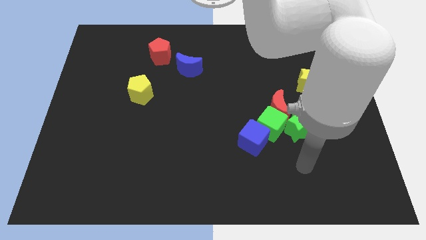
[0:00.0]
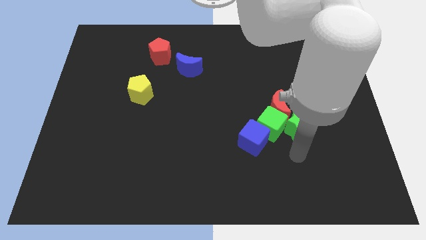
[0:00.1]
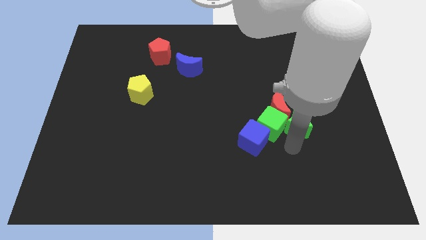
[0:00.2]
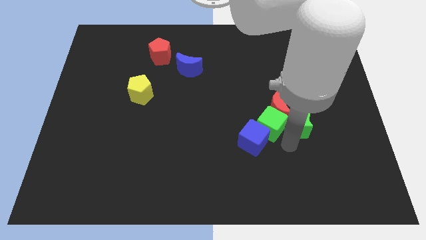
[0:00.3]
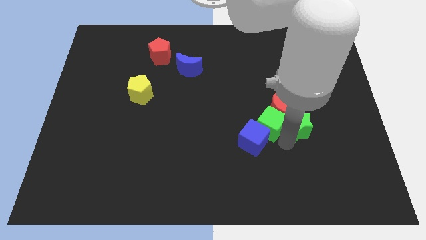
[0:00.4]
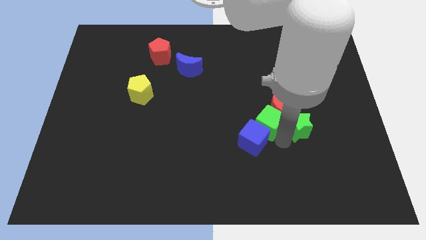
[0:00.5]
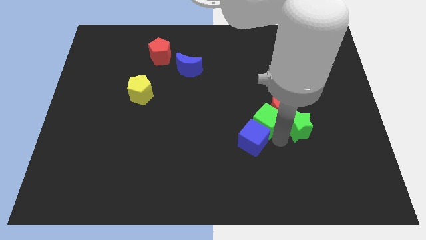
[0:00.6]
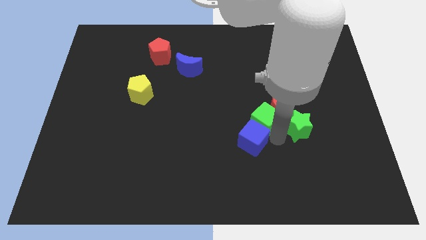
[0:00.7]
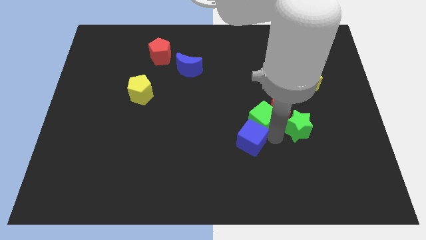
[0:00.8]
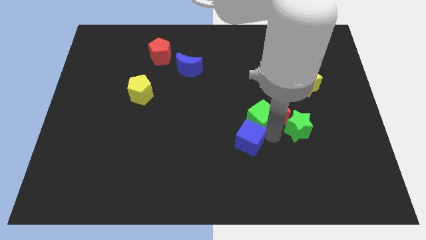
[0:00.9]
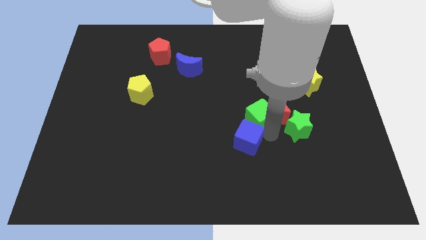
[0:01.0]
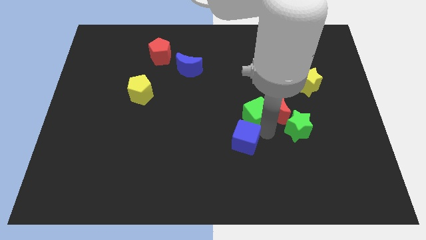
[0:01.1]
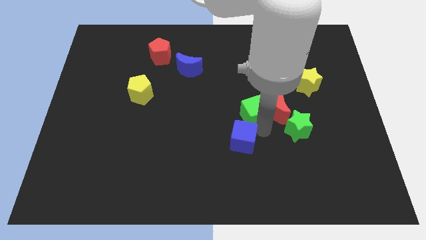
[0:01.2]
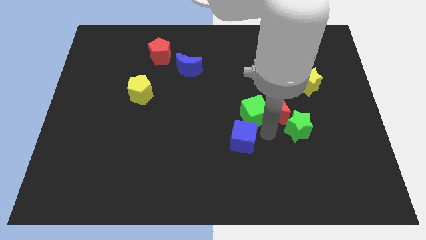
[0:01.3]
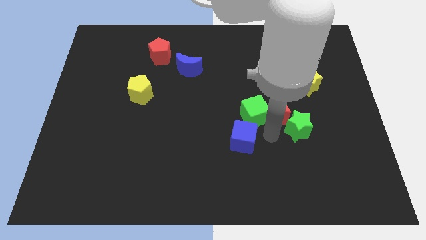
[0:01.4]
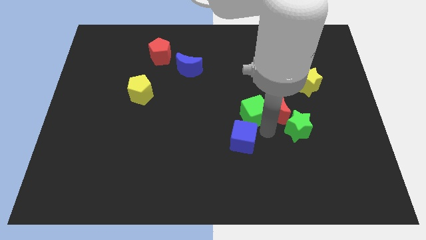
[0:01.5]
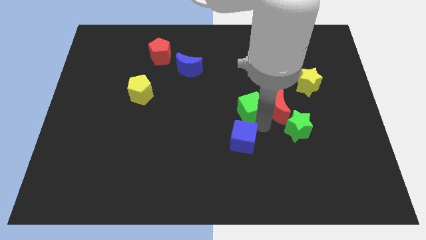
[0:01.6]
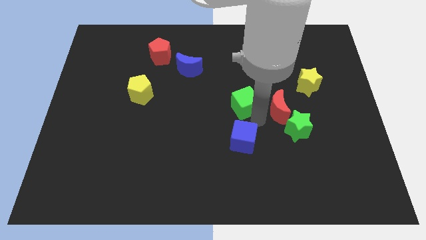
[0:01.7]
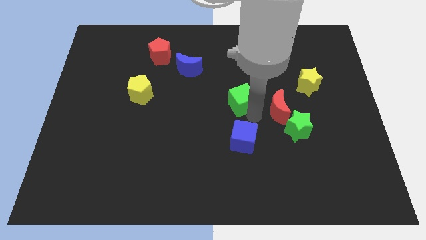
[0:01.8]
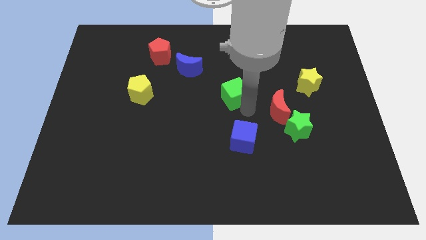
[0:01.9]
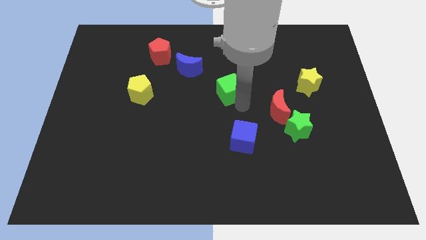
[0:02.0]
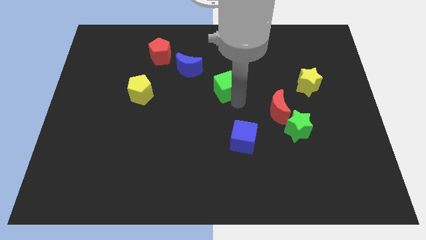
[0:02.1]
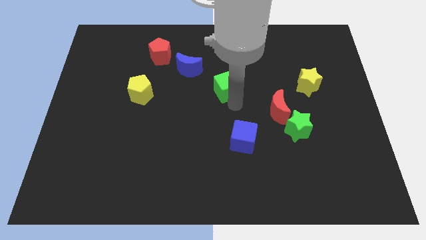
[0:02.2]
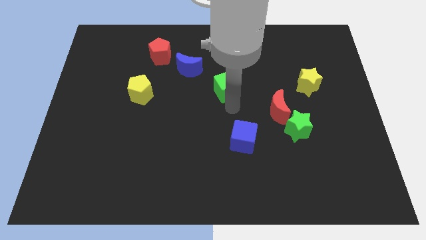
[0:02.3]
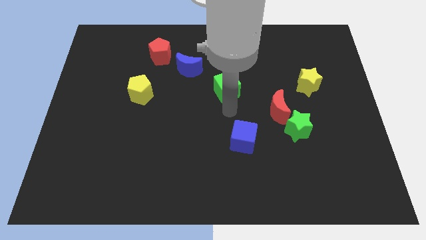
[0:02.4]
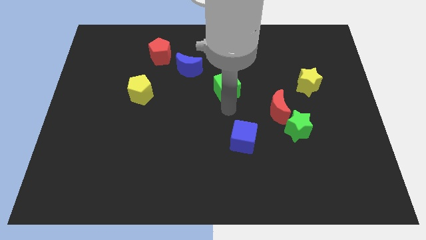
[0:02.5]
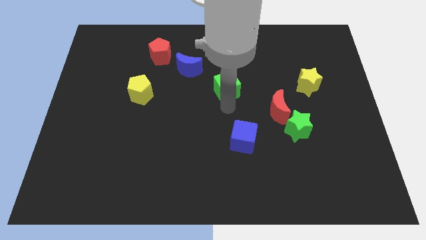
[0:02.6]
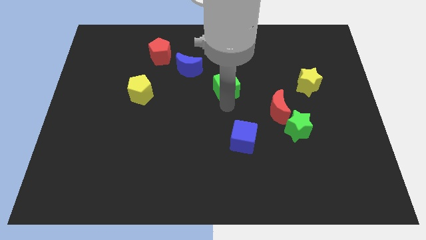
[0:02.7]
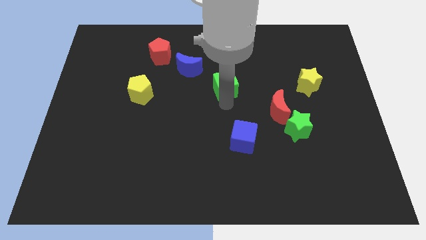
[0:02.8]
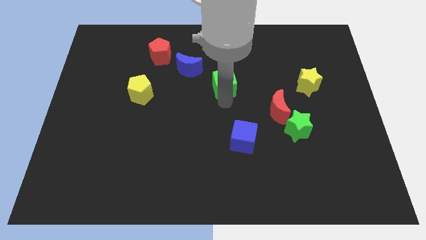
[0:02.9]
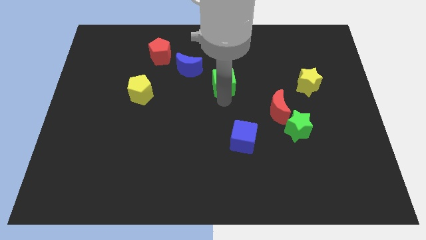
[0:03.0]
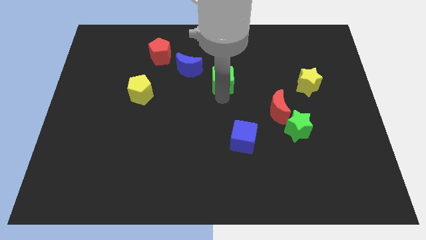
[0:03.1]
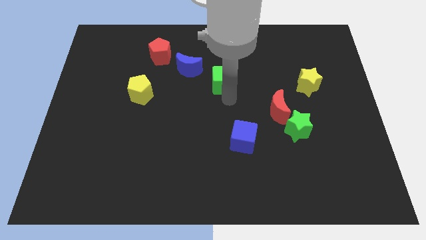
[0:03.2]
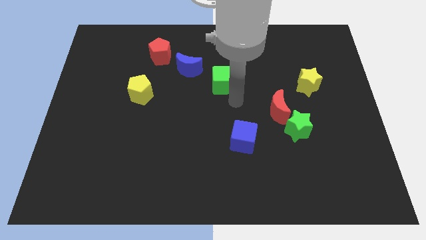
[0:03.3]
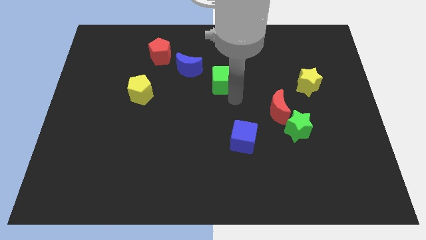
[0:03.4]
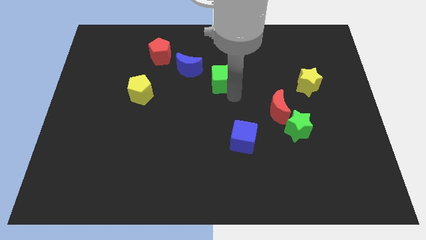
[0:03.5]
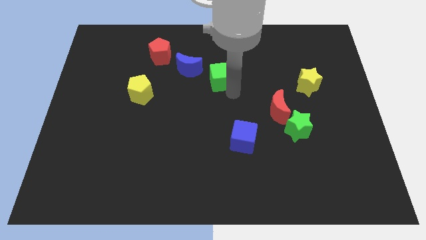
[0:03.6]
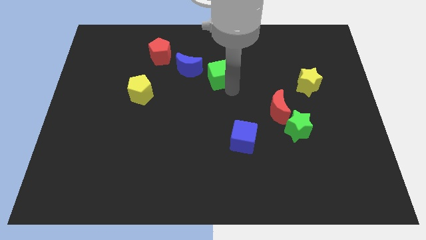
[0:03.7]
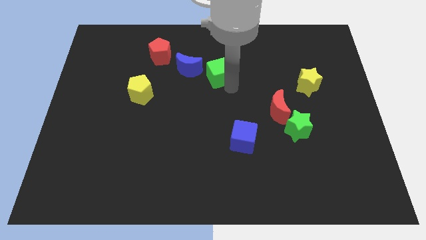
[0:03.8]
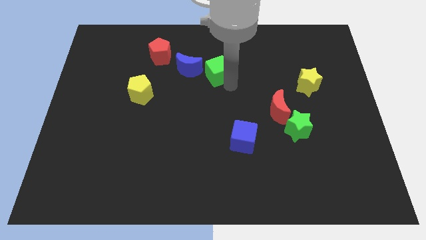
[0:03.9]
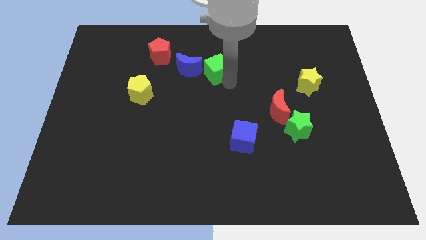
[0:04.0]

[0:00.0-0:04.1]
slide the green cube up and then to the left

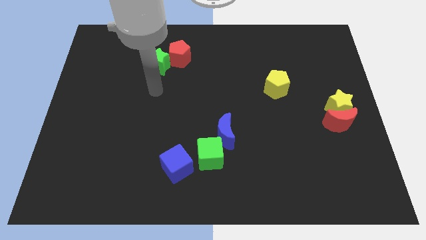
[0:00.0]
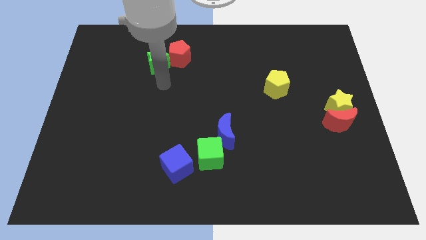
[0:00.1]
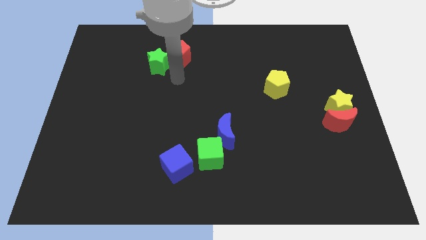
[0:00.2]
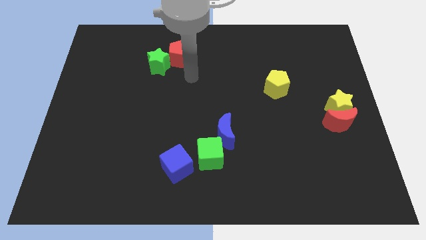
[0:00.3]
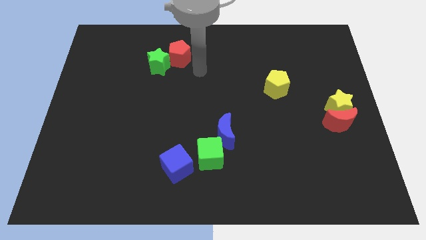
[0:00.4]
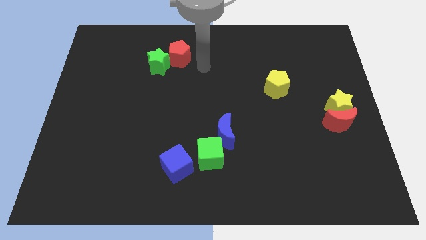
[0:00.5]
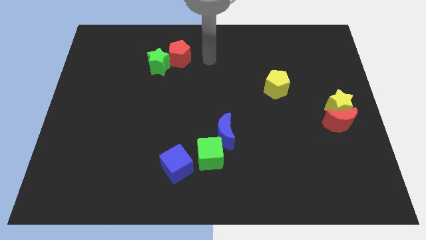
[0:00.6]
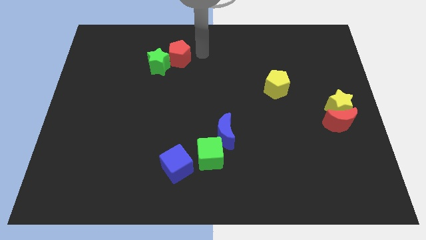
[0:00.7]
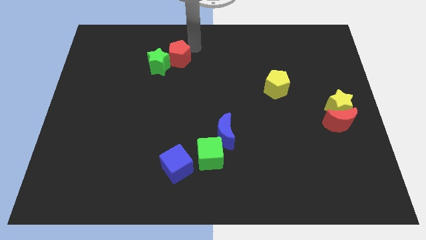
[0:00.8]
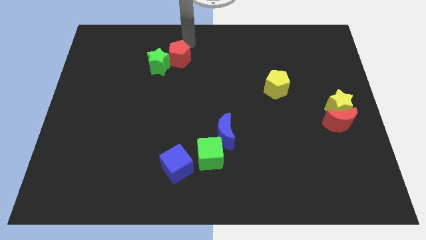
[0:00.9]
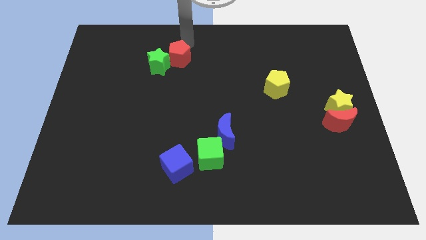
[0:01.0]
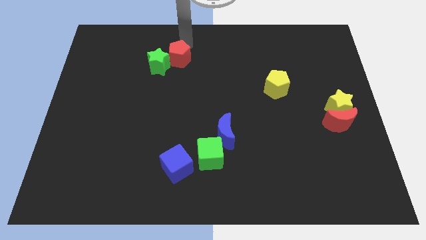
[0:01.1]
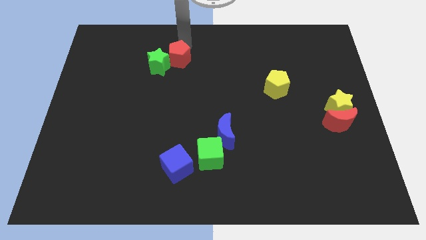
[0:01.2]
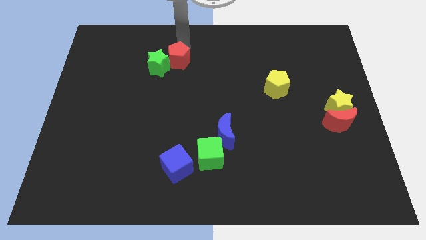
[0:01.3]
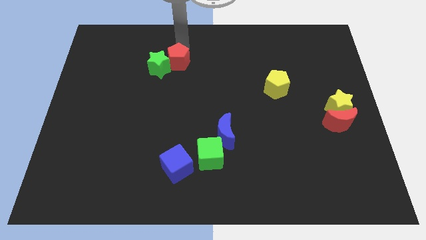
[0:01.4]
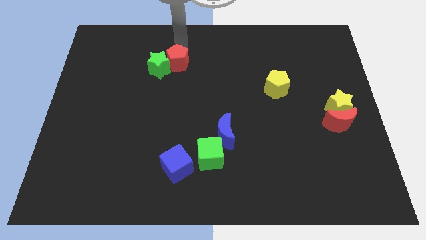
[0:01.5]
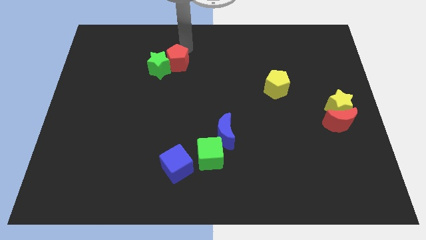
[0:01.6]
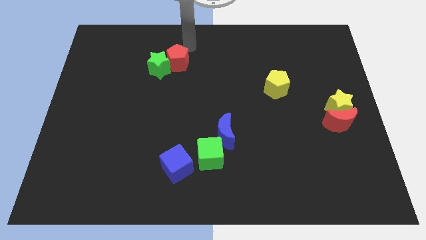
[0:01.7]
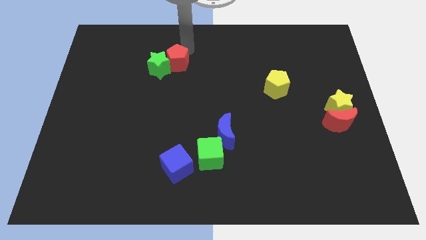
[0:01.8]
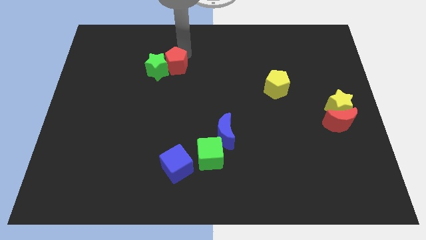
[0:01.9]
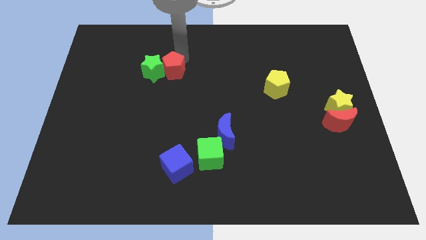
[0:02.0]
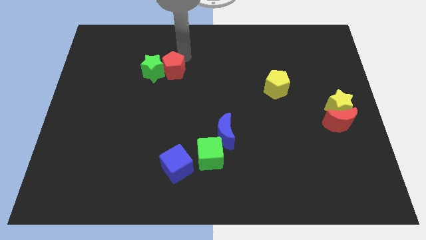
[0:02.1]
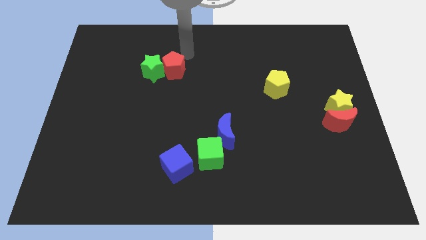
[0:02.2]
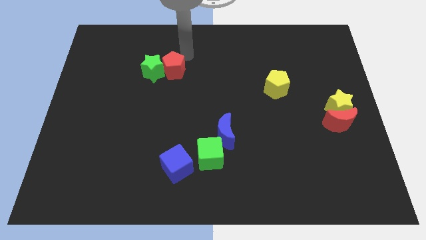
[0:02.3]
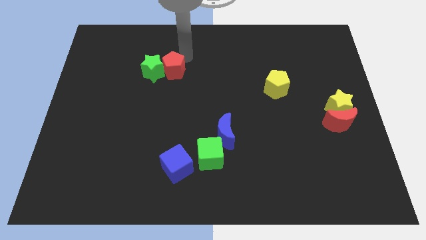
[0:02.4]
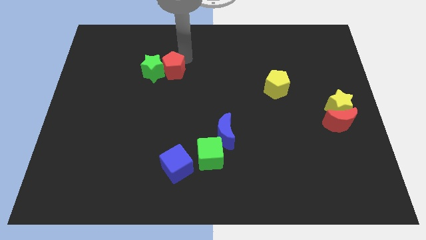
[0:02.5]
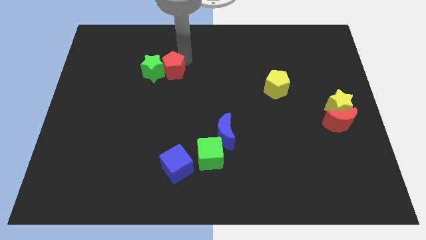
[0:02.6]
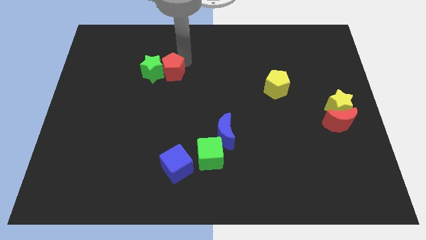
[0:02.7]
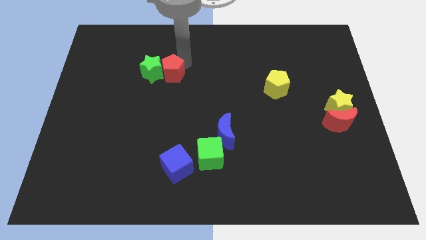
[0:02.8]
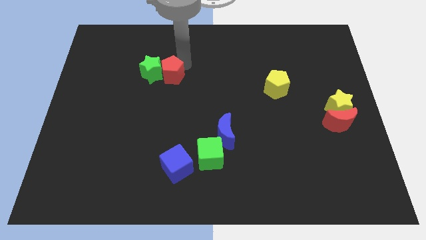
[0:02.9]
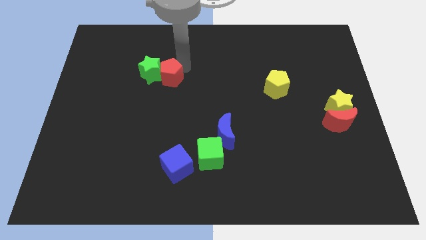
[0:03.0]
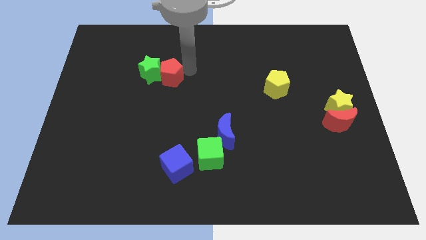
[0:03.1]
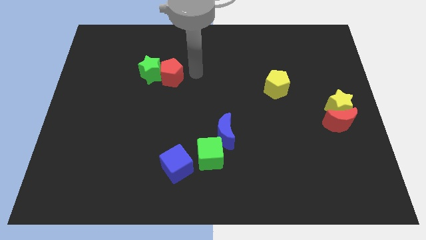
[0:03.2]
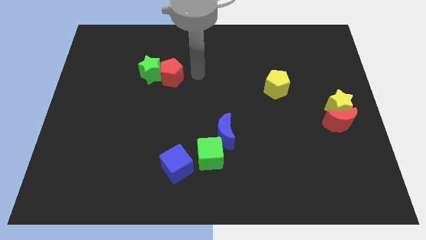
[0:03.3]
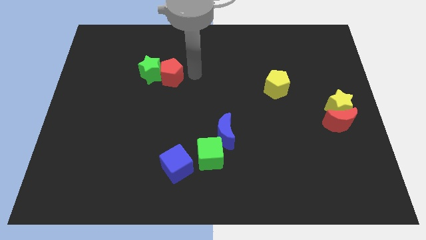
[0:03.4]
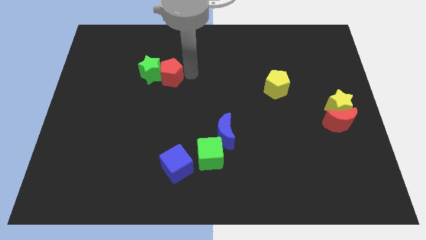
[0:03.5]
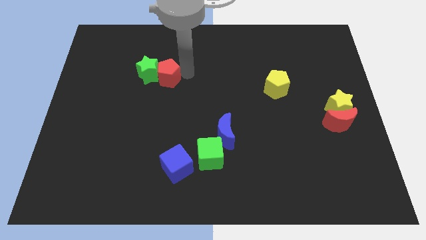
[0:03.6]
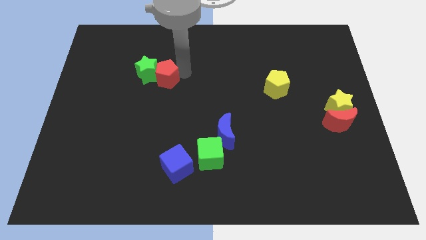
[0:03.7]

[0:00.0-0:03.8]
slide the red pentagon somewhat down and then to the left

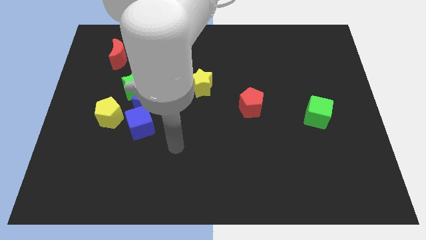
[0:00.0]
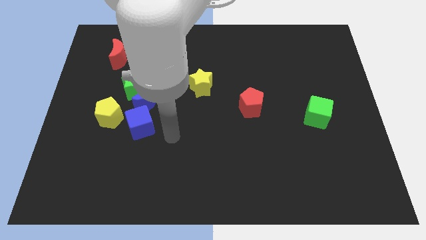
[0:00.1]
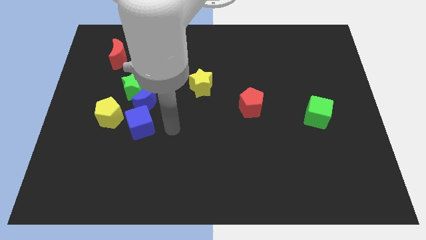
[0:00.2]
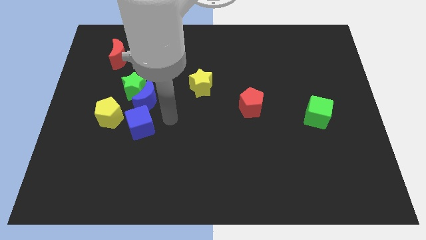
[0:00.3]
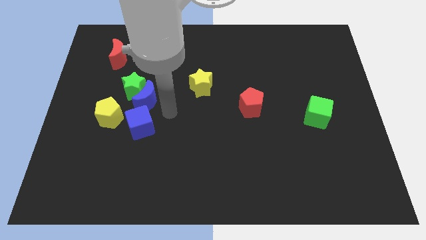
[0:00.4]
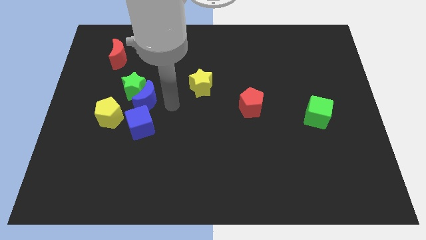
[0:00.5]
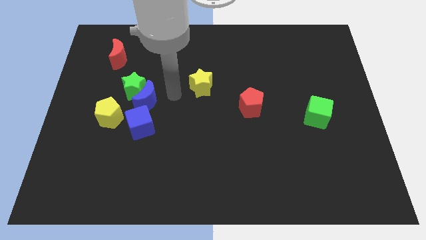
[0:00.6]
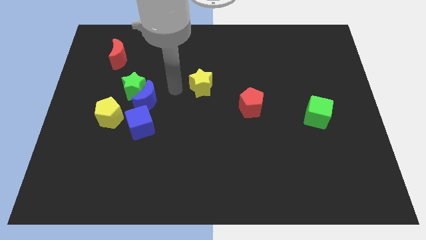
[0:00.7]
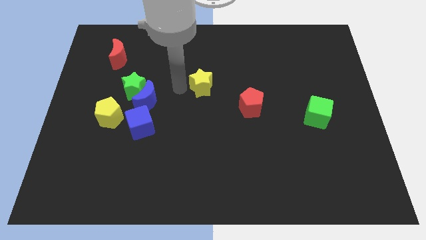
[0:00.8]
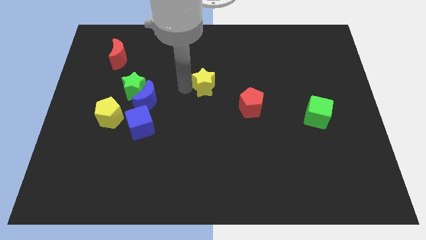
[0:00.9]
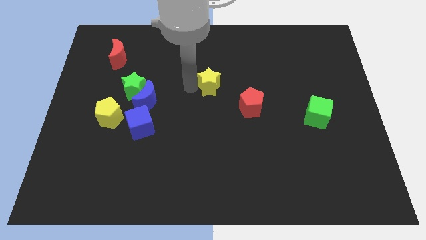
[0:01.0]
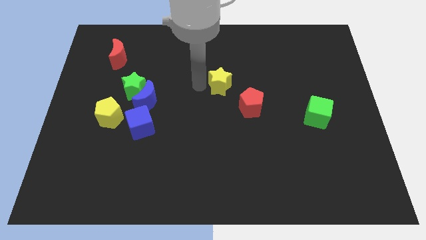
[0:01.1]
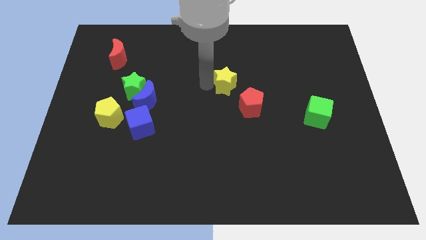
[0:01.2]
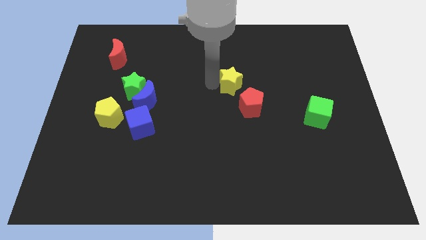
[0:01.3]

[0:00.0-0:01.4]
push the yellow star somewhat to the right
